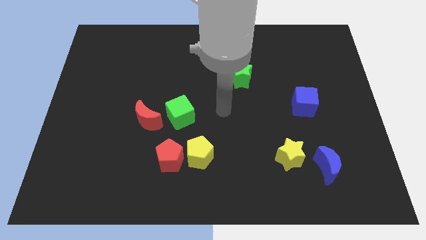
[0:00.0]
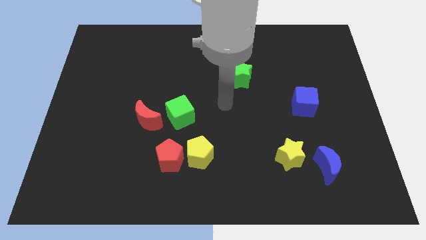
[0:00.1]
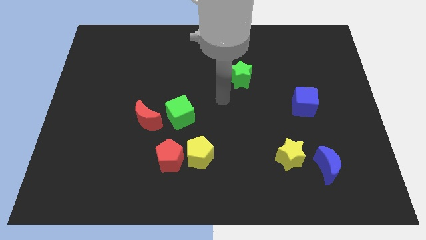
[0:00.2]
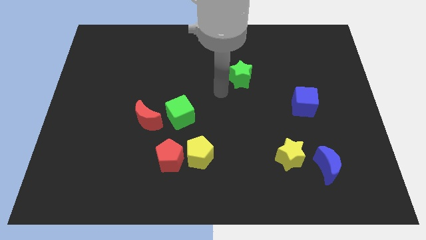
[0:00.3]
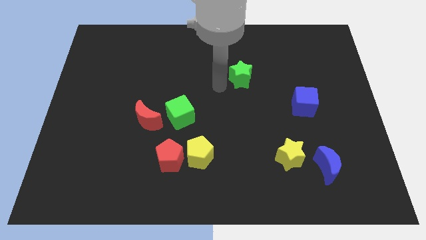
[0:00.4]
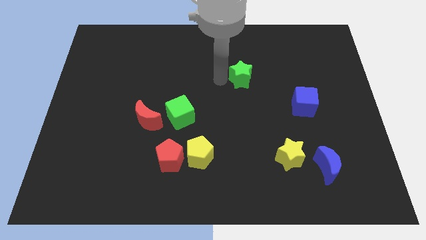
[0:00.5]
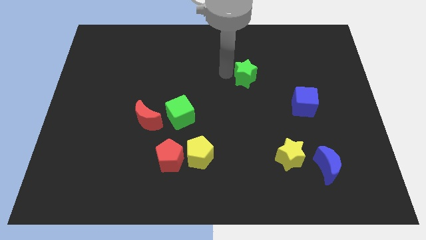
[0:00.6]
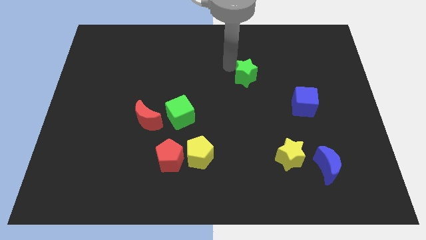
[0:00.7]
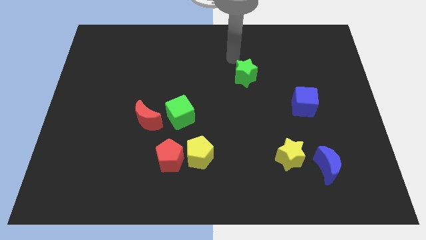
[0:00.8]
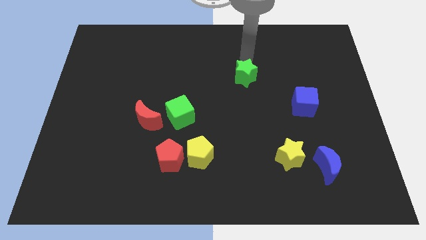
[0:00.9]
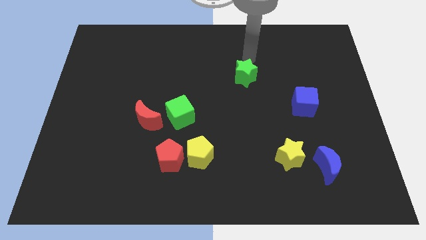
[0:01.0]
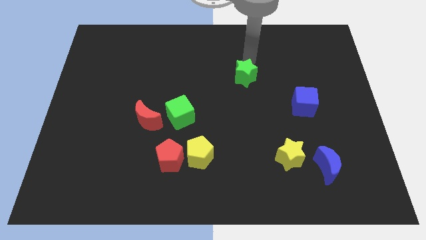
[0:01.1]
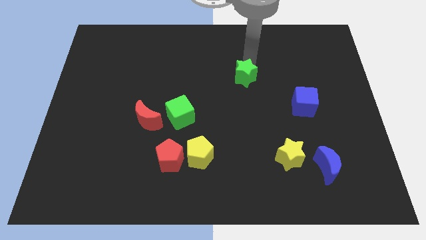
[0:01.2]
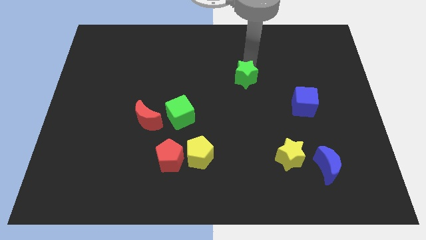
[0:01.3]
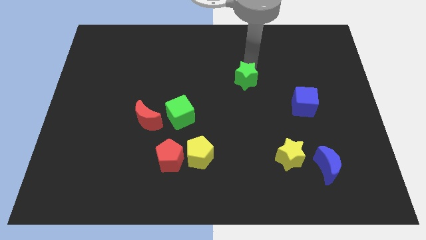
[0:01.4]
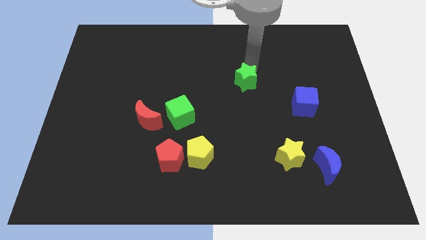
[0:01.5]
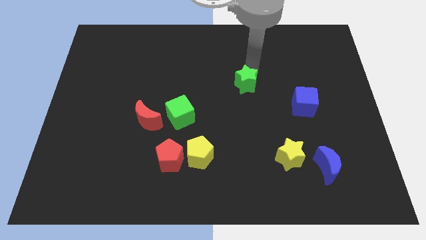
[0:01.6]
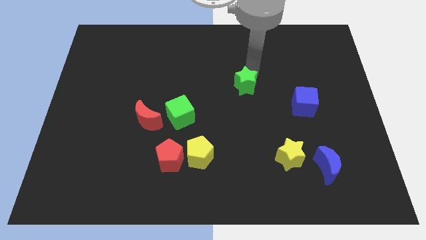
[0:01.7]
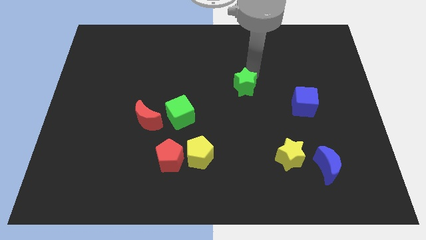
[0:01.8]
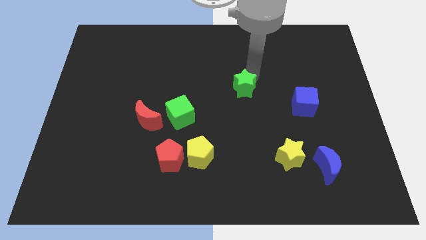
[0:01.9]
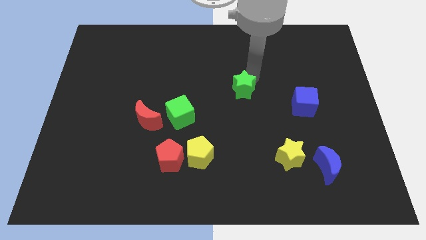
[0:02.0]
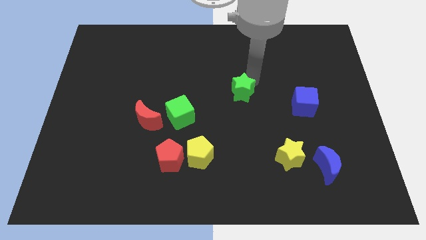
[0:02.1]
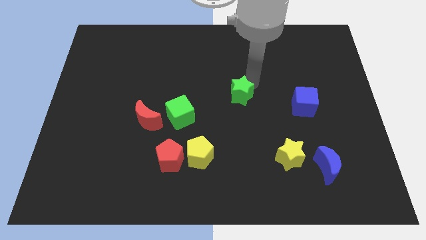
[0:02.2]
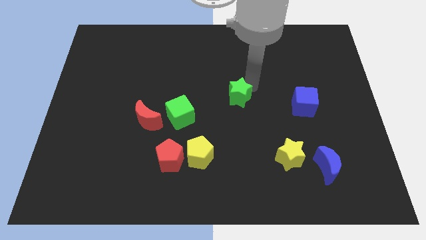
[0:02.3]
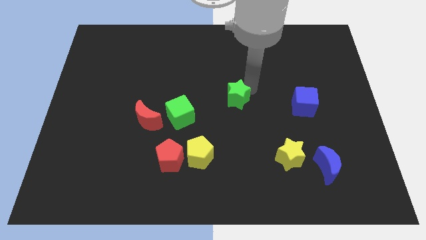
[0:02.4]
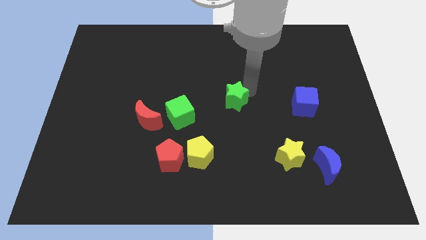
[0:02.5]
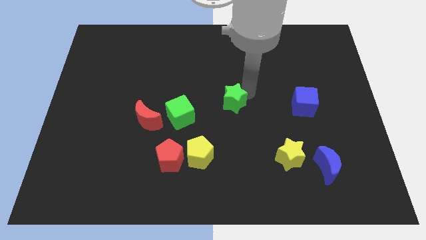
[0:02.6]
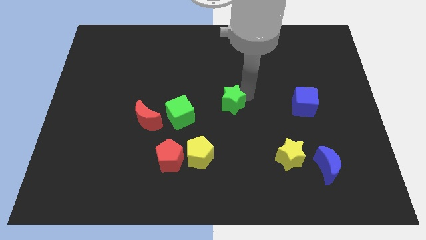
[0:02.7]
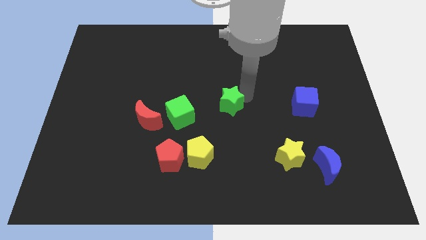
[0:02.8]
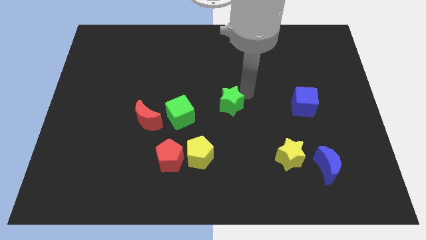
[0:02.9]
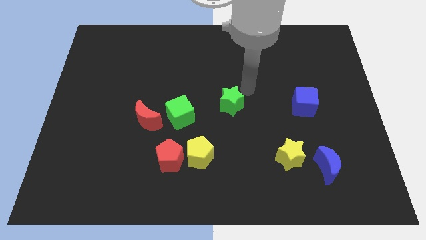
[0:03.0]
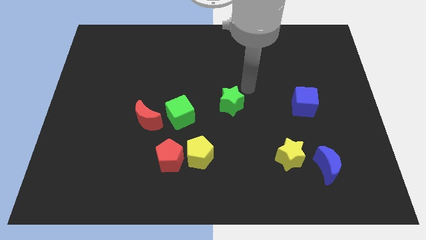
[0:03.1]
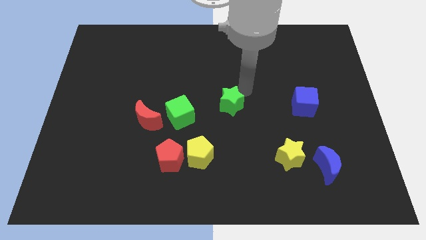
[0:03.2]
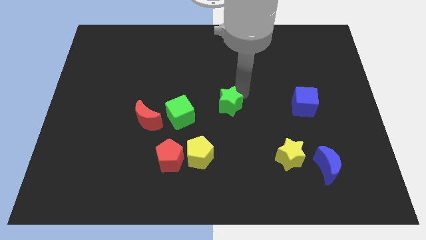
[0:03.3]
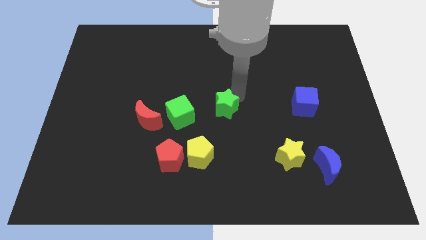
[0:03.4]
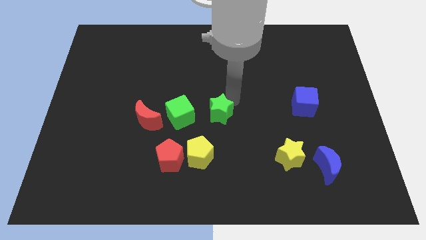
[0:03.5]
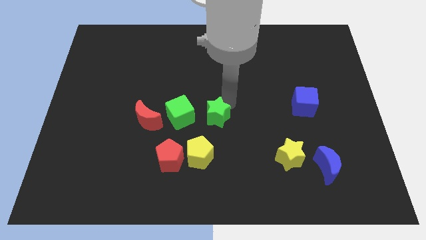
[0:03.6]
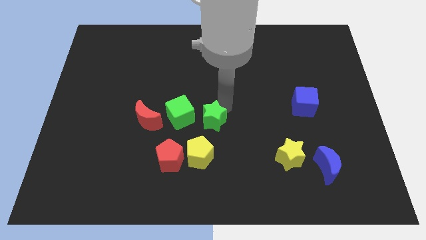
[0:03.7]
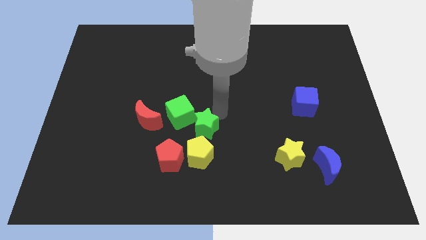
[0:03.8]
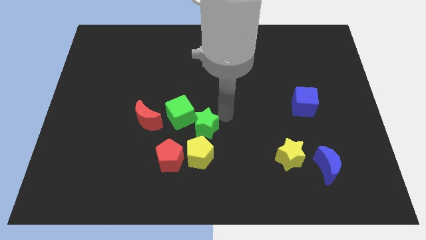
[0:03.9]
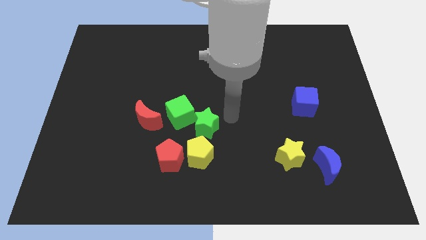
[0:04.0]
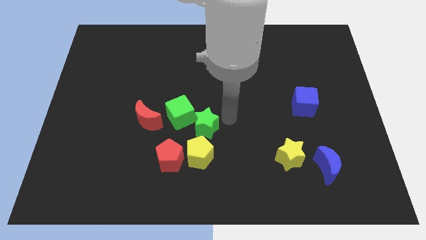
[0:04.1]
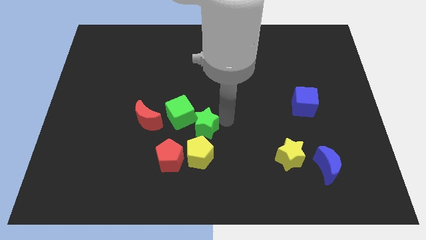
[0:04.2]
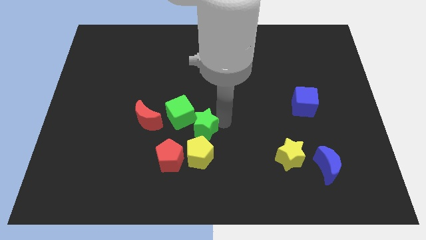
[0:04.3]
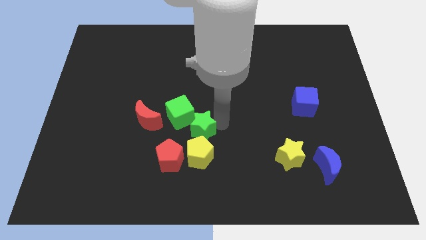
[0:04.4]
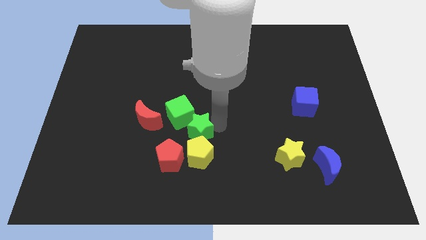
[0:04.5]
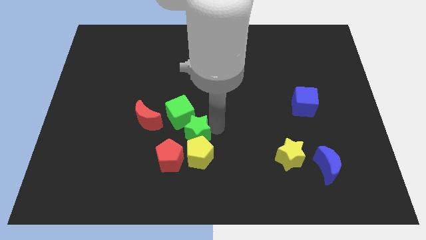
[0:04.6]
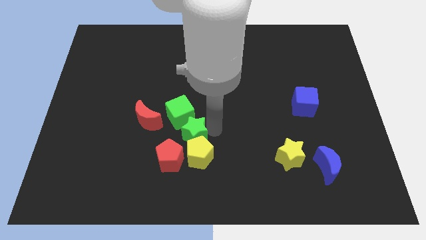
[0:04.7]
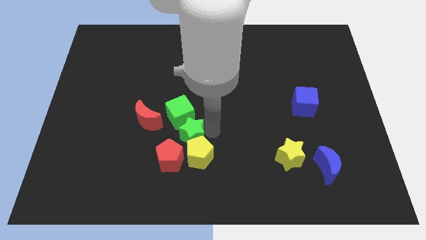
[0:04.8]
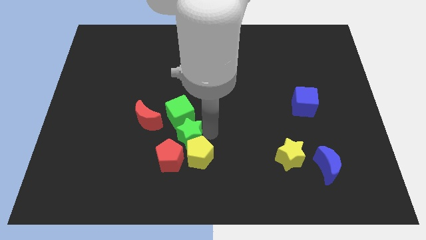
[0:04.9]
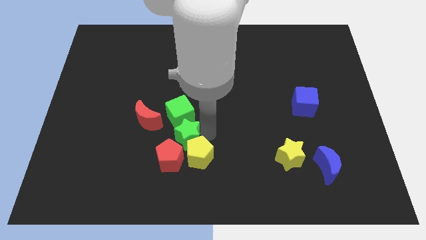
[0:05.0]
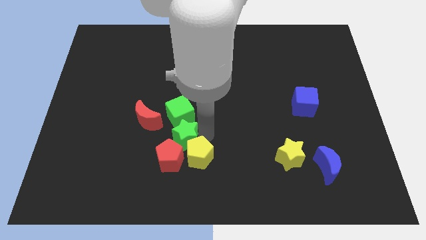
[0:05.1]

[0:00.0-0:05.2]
put the green star left of the yellow pentagon

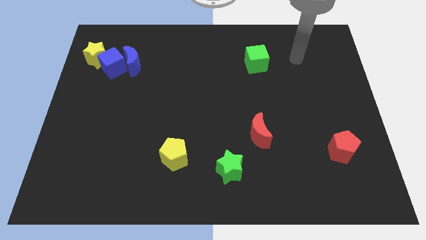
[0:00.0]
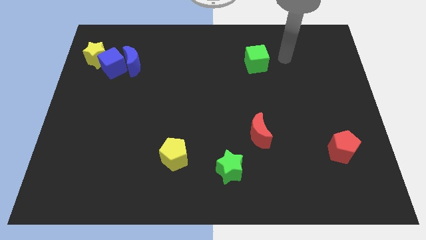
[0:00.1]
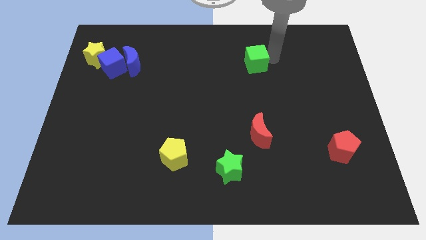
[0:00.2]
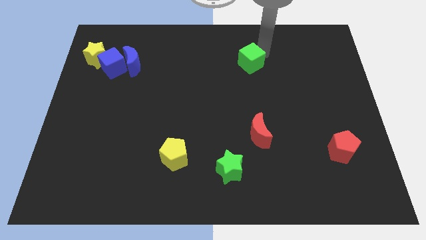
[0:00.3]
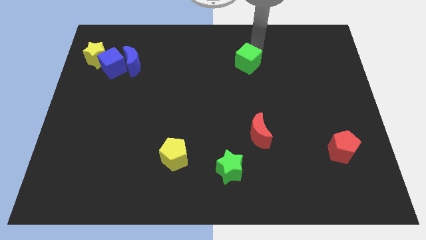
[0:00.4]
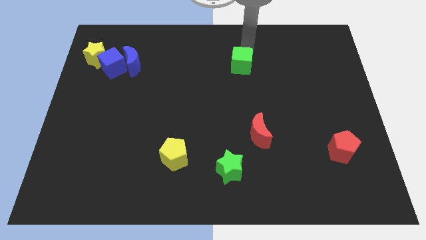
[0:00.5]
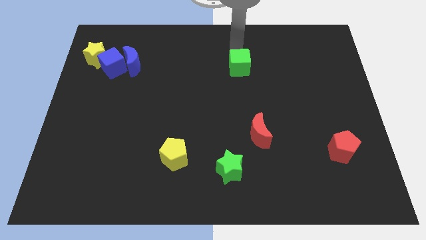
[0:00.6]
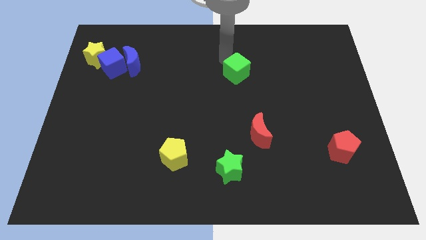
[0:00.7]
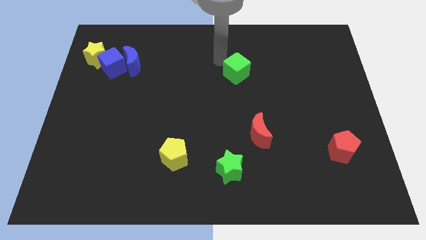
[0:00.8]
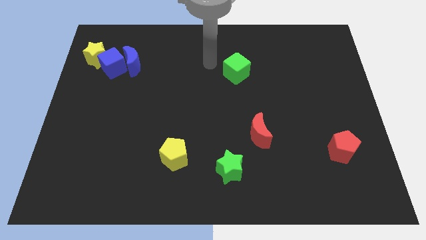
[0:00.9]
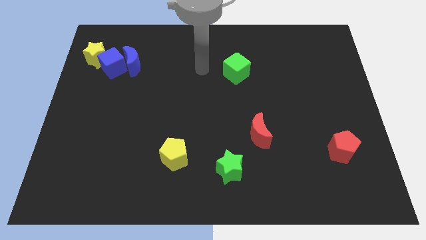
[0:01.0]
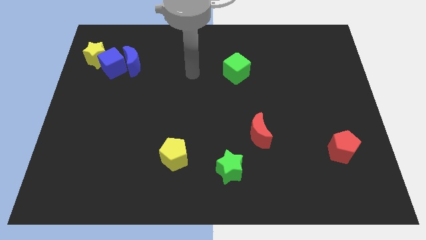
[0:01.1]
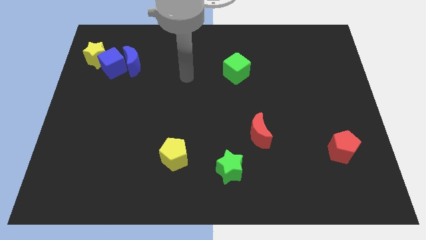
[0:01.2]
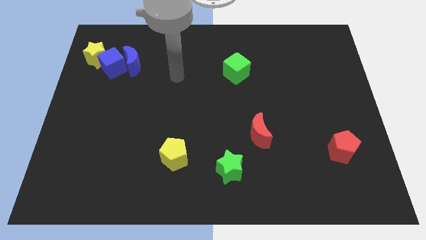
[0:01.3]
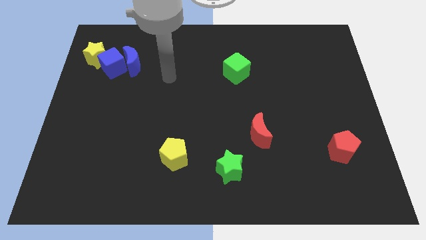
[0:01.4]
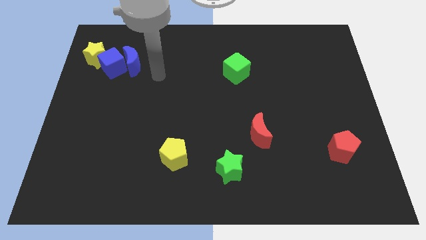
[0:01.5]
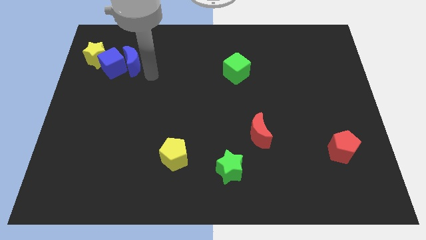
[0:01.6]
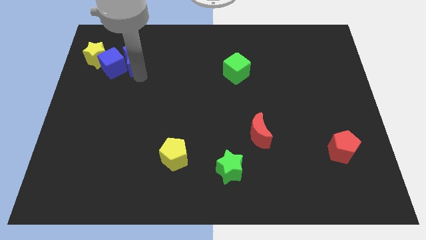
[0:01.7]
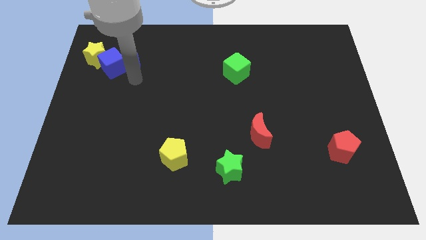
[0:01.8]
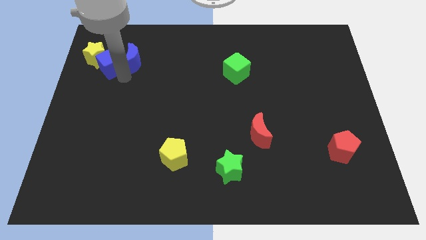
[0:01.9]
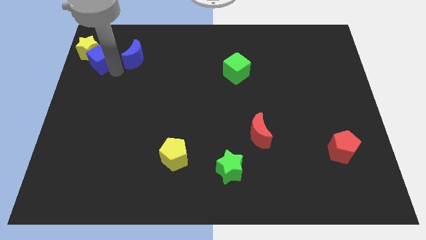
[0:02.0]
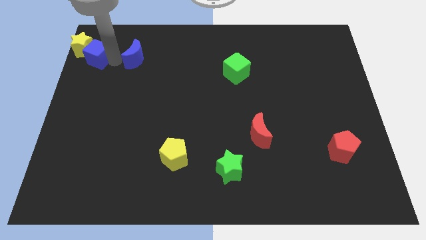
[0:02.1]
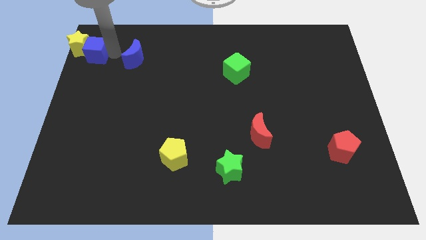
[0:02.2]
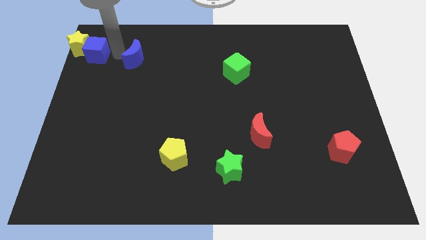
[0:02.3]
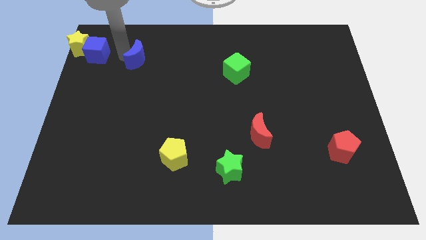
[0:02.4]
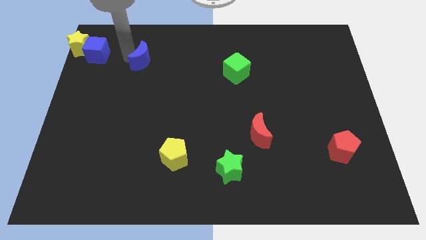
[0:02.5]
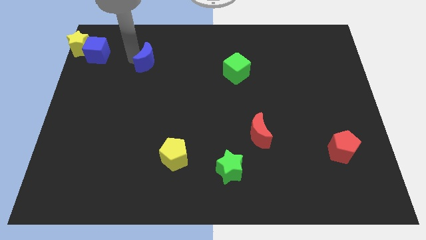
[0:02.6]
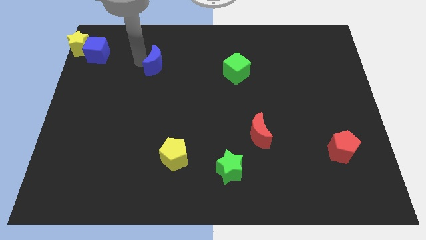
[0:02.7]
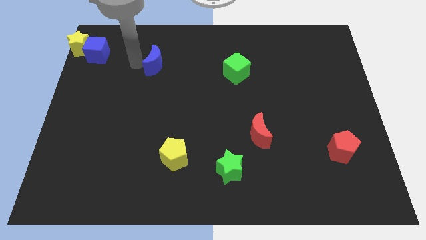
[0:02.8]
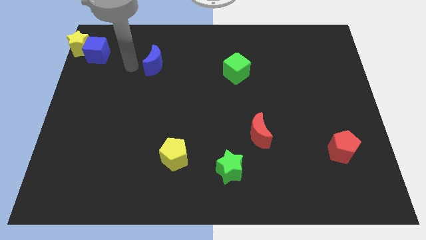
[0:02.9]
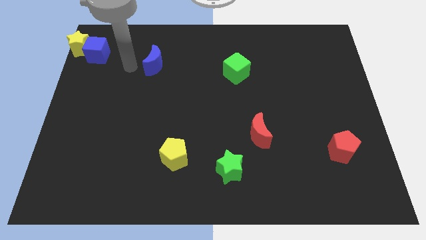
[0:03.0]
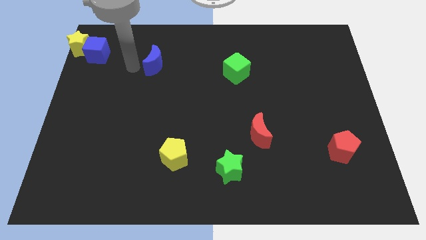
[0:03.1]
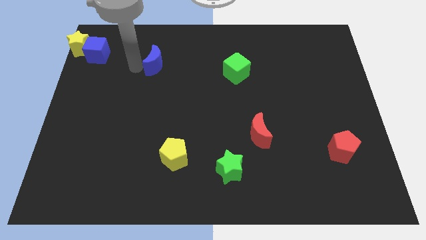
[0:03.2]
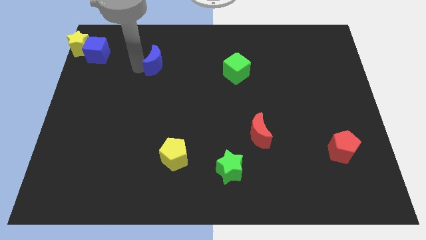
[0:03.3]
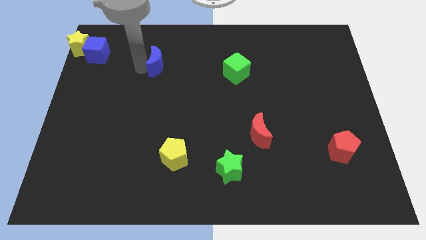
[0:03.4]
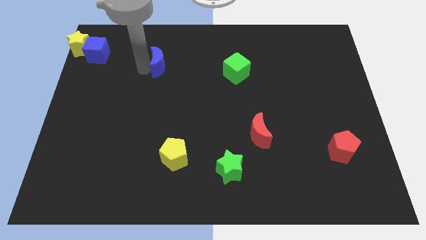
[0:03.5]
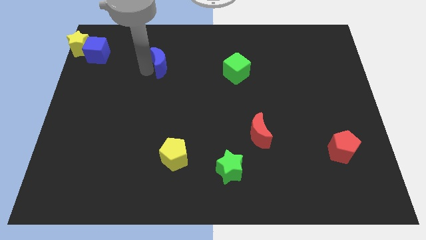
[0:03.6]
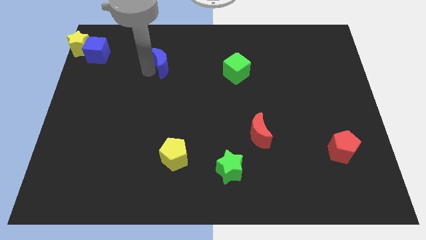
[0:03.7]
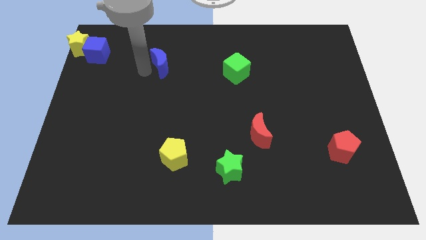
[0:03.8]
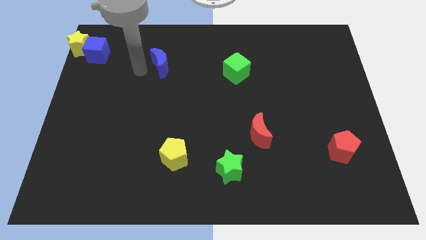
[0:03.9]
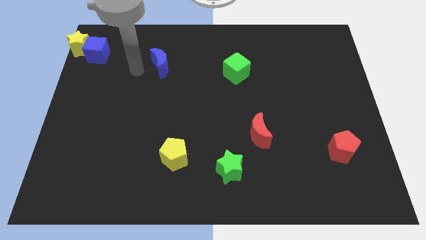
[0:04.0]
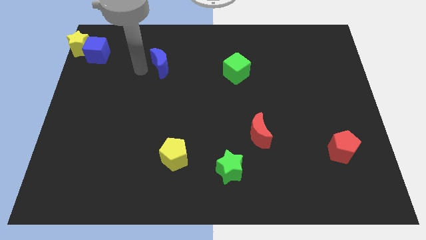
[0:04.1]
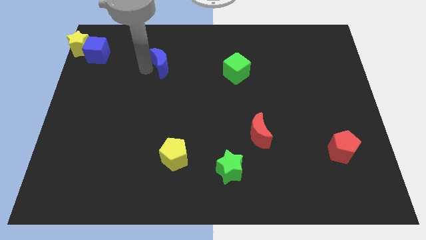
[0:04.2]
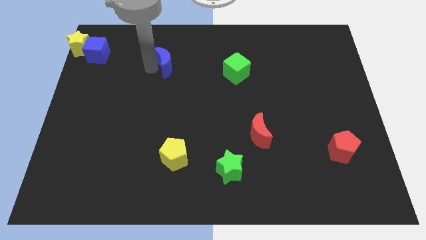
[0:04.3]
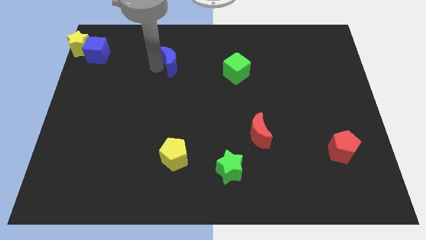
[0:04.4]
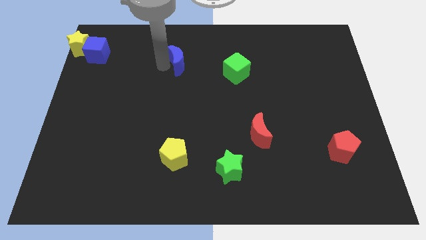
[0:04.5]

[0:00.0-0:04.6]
push the blue moon to the left of the green cube
